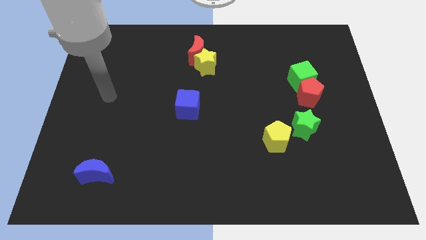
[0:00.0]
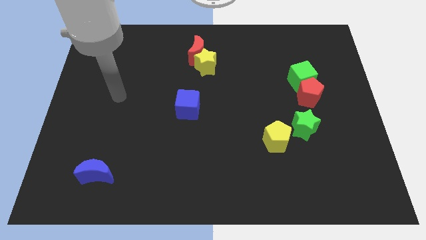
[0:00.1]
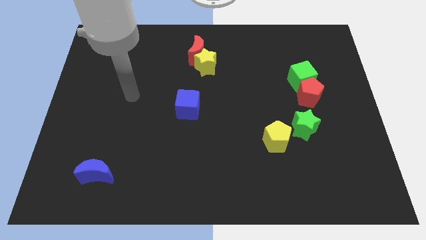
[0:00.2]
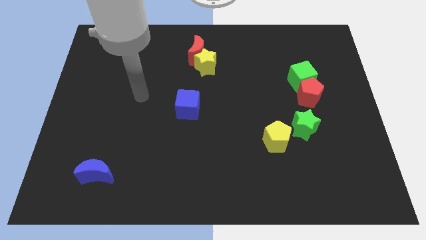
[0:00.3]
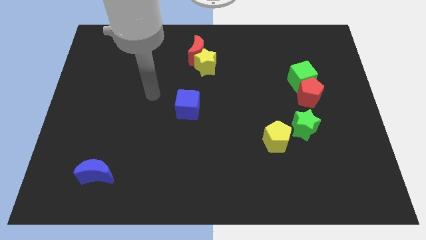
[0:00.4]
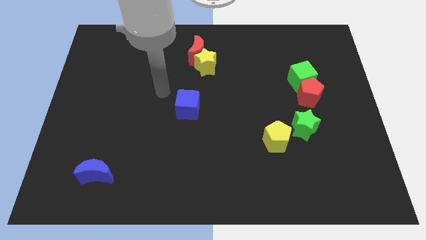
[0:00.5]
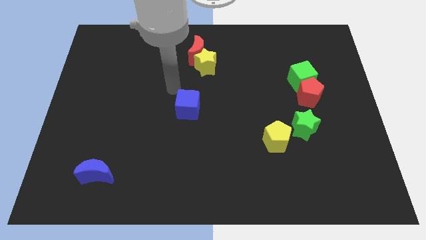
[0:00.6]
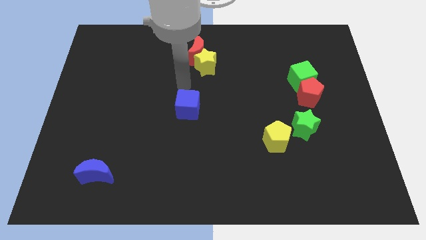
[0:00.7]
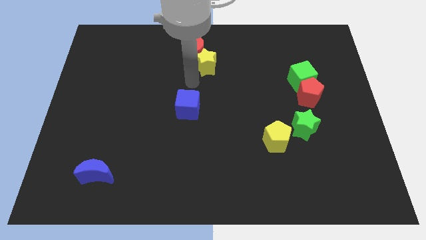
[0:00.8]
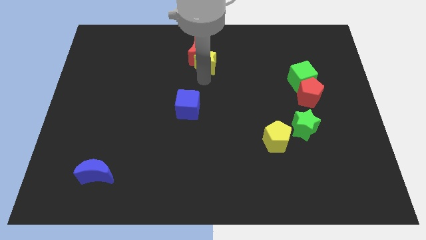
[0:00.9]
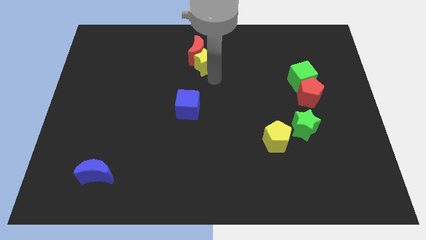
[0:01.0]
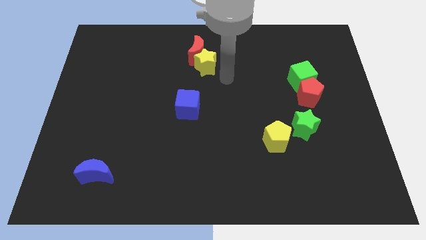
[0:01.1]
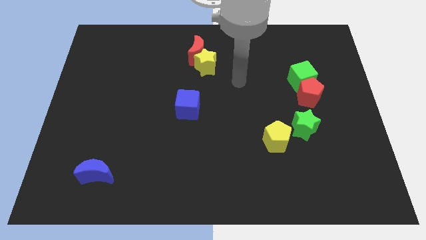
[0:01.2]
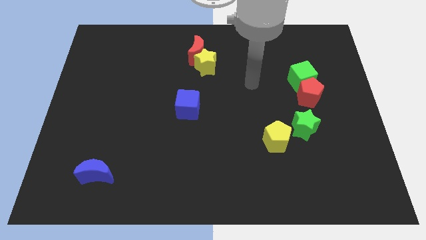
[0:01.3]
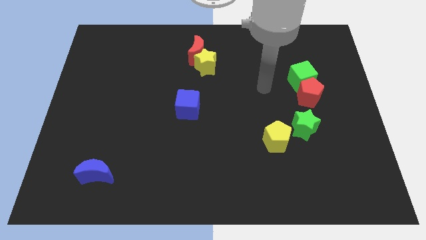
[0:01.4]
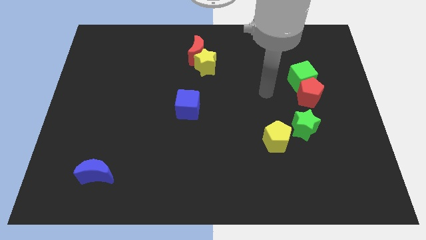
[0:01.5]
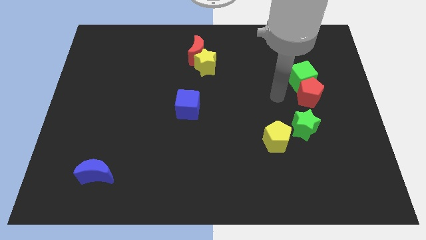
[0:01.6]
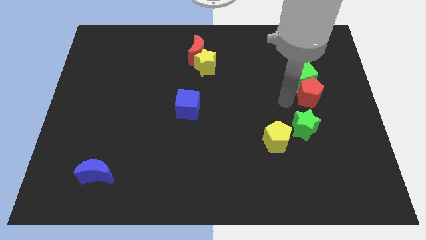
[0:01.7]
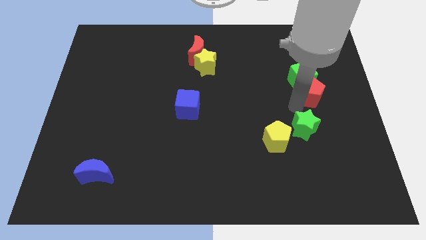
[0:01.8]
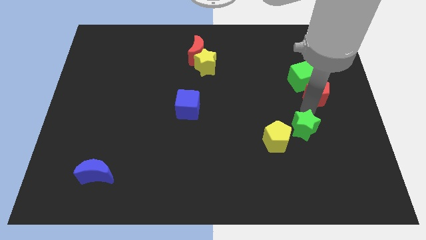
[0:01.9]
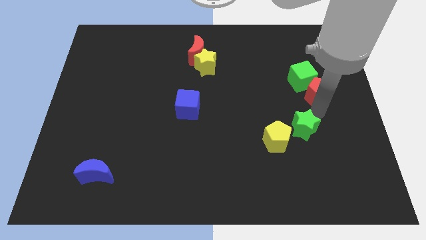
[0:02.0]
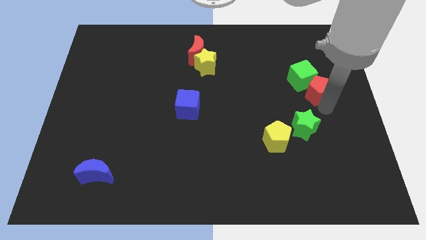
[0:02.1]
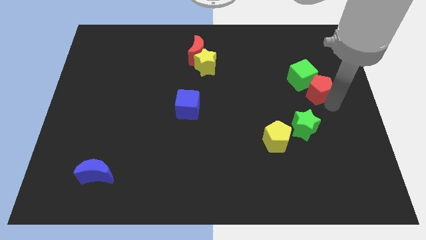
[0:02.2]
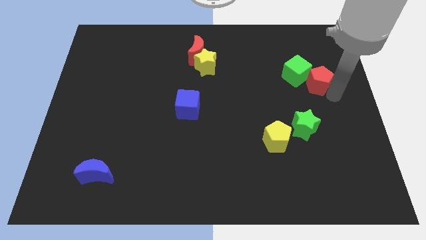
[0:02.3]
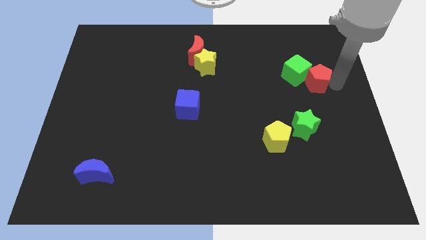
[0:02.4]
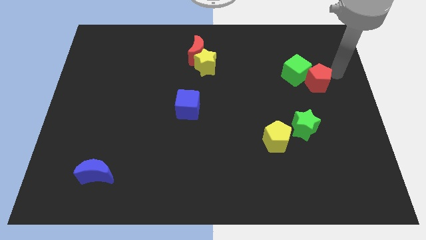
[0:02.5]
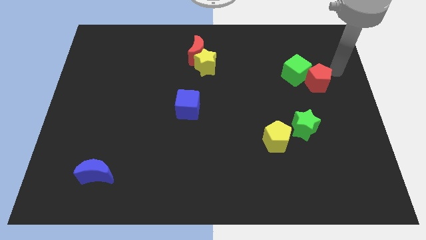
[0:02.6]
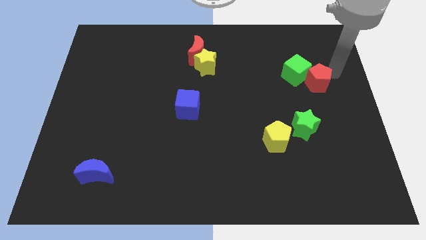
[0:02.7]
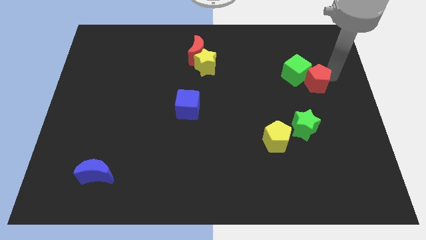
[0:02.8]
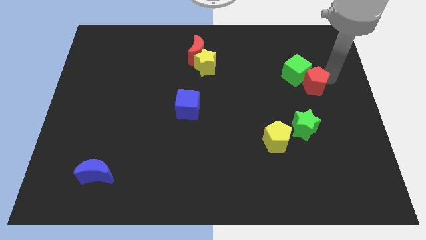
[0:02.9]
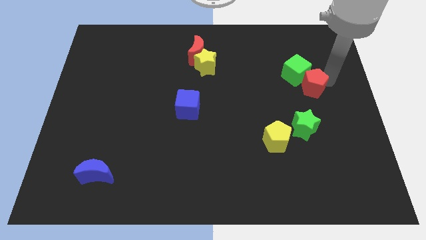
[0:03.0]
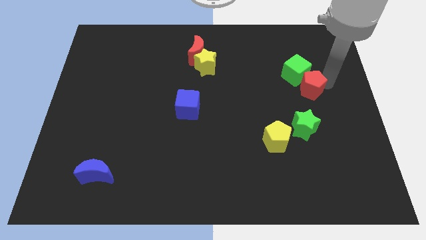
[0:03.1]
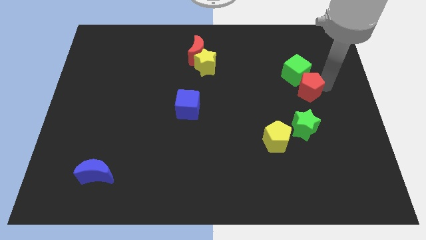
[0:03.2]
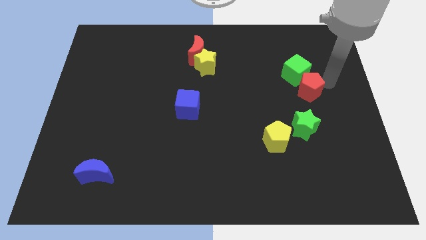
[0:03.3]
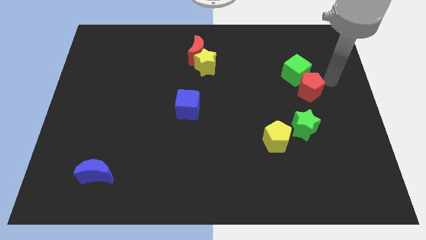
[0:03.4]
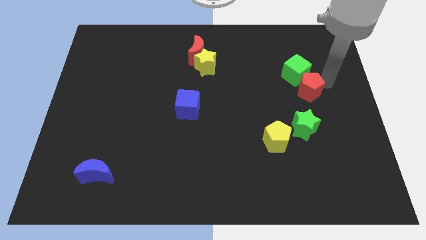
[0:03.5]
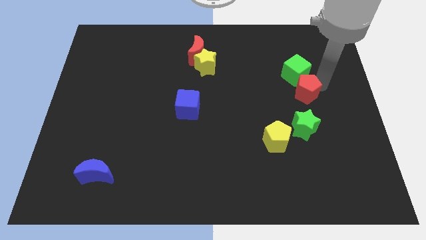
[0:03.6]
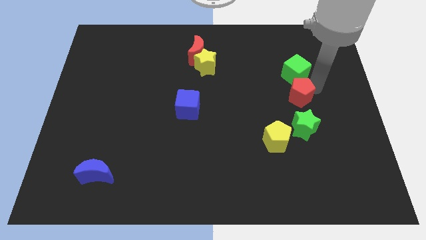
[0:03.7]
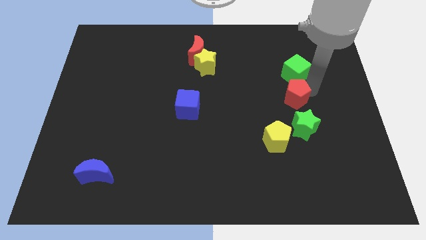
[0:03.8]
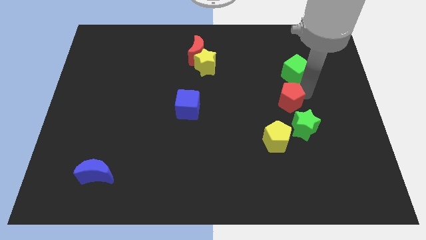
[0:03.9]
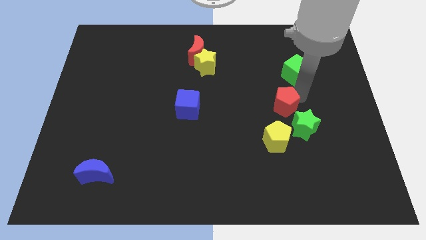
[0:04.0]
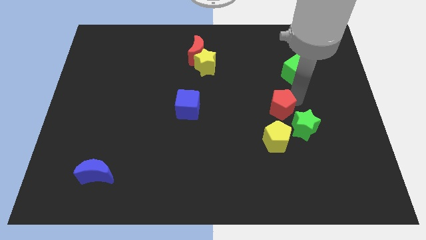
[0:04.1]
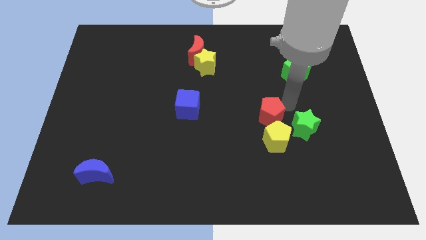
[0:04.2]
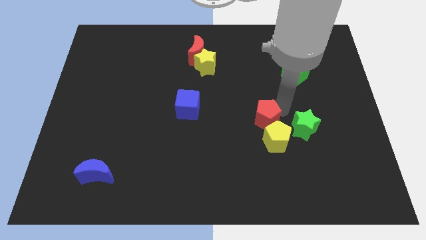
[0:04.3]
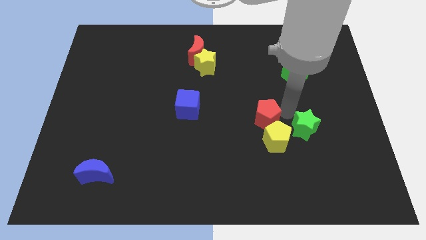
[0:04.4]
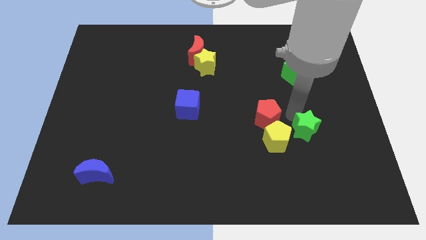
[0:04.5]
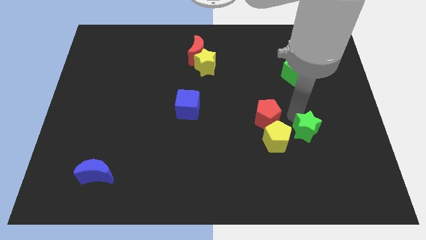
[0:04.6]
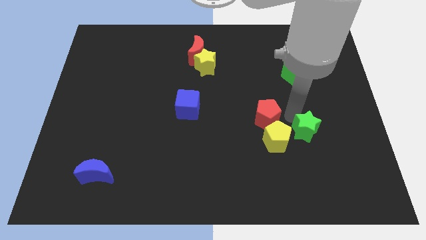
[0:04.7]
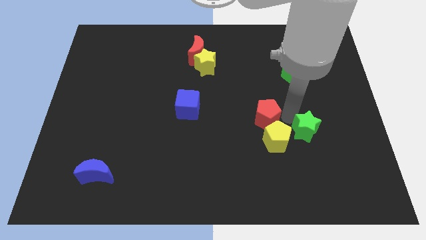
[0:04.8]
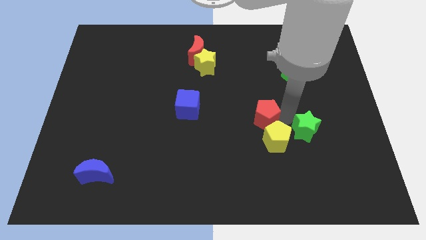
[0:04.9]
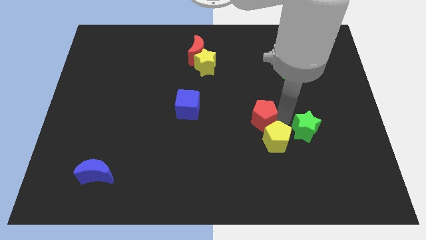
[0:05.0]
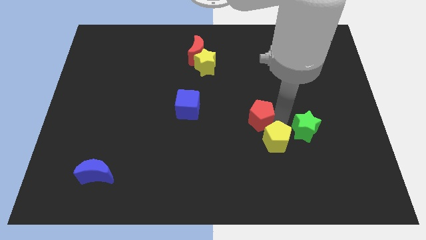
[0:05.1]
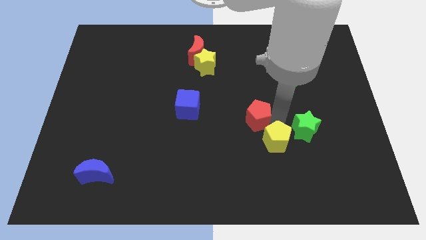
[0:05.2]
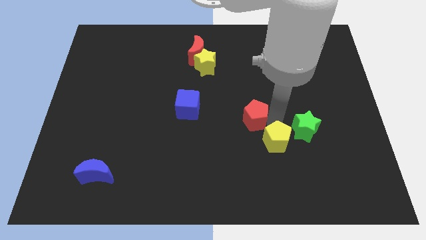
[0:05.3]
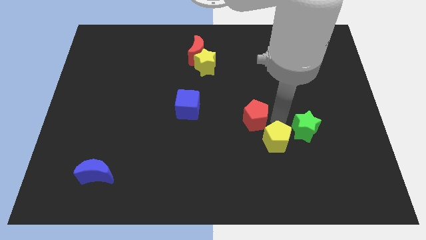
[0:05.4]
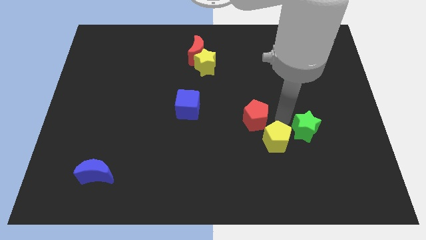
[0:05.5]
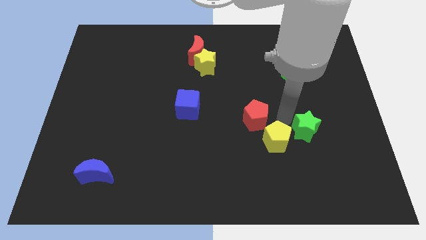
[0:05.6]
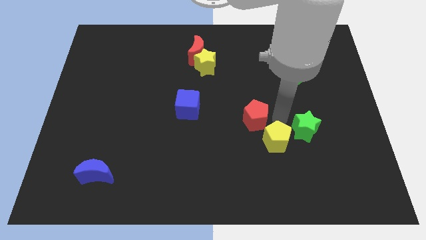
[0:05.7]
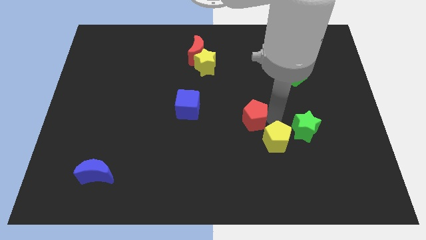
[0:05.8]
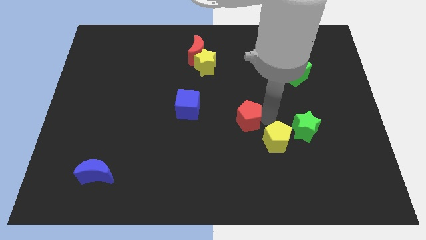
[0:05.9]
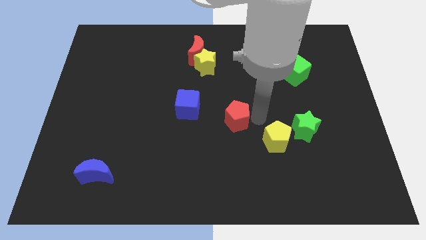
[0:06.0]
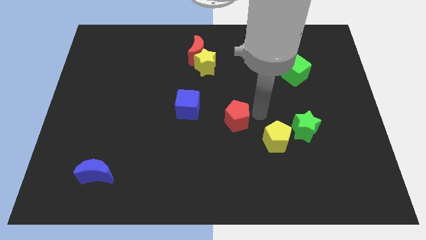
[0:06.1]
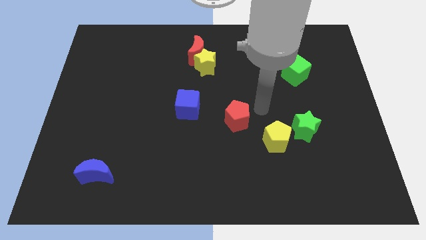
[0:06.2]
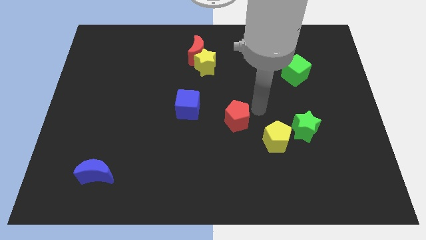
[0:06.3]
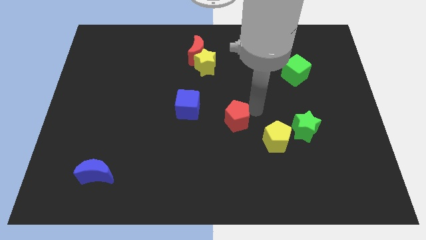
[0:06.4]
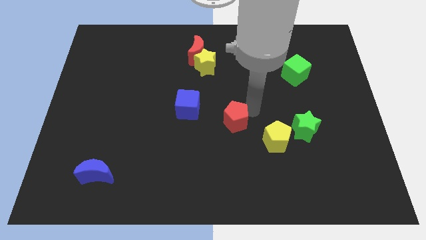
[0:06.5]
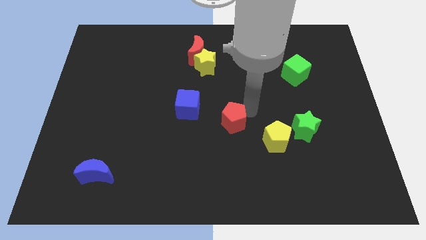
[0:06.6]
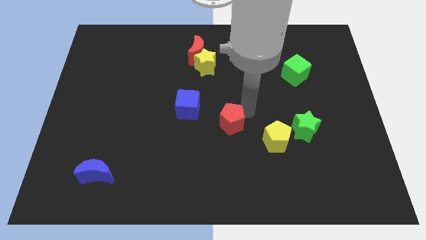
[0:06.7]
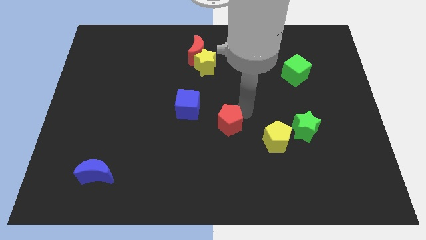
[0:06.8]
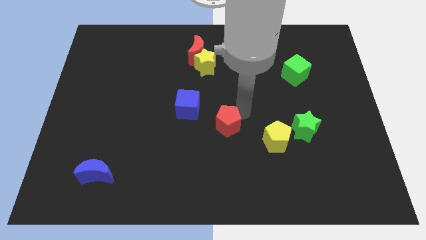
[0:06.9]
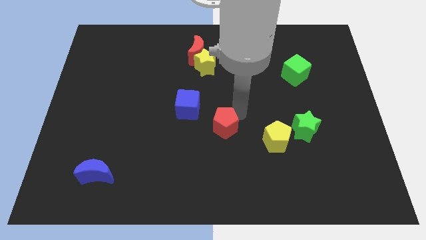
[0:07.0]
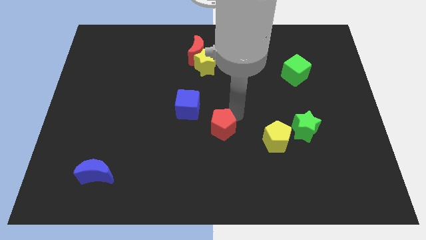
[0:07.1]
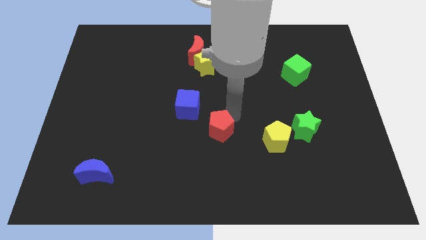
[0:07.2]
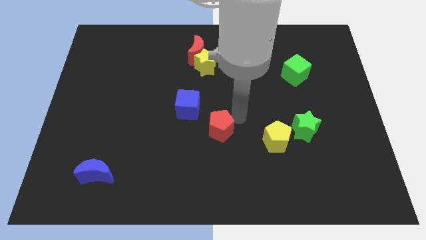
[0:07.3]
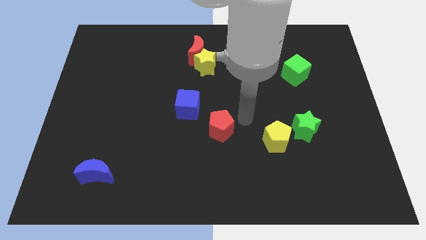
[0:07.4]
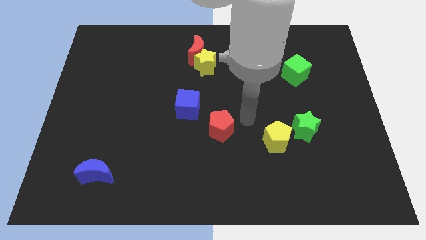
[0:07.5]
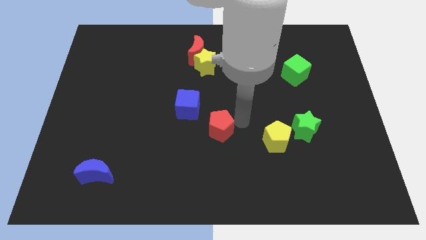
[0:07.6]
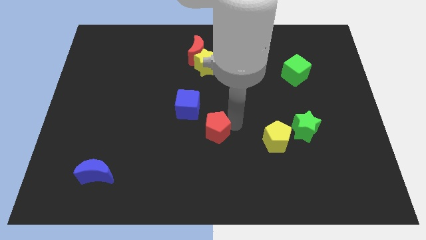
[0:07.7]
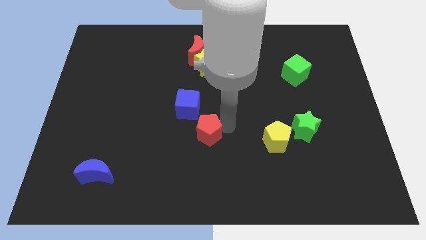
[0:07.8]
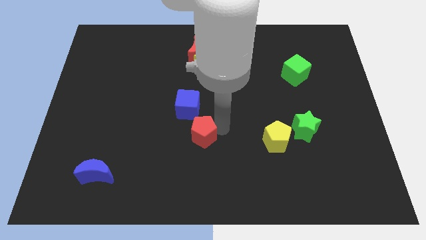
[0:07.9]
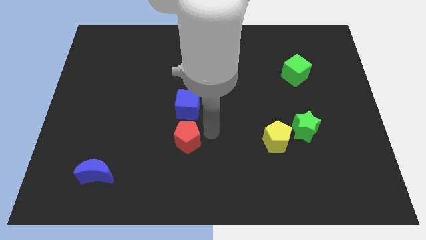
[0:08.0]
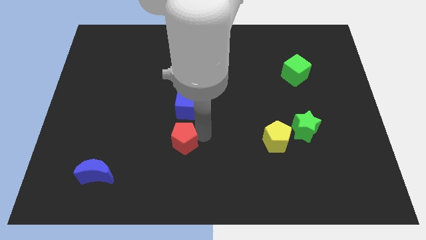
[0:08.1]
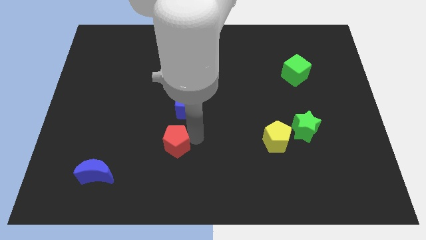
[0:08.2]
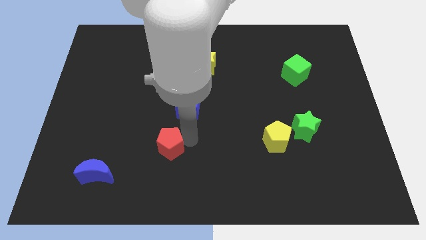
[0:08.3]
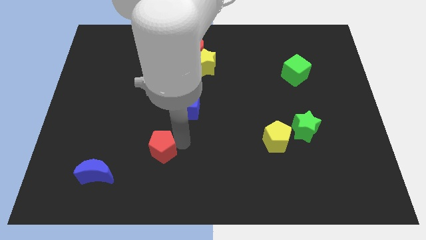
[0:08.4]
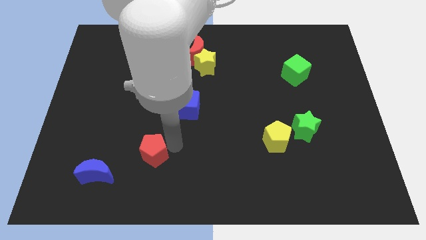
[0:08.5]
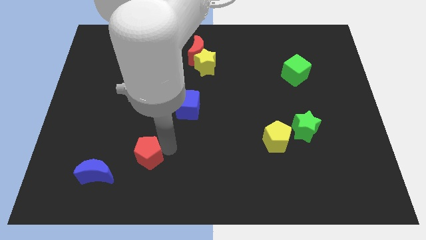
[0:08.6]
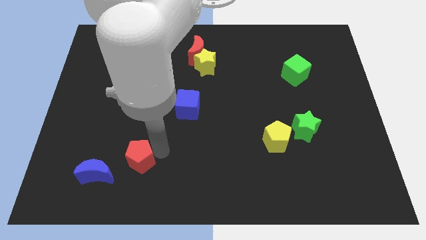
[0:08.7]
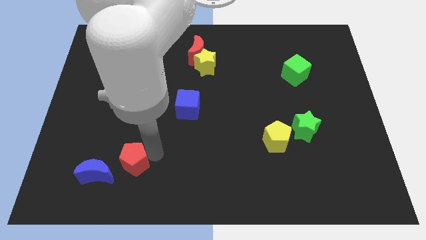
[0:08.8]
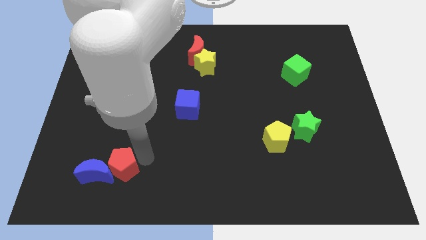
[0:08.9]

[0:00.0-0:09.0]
push the red pentagon towards the blue moon
